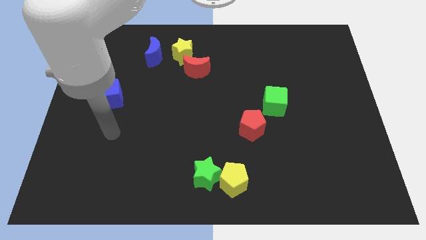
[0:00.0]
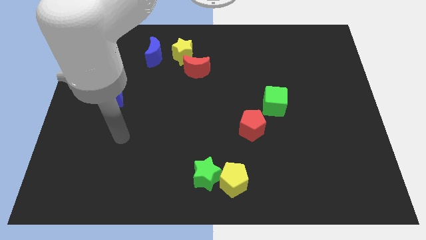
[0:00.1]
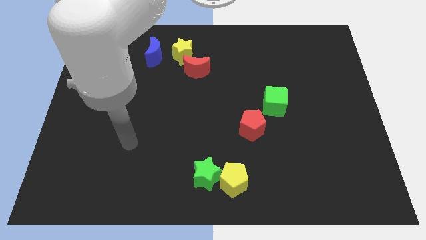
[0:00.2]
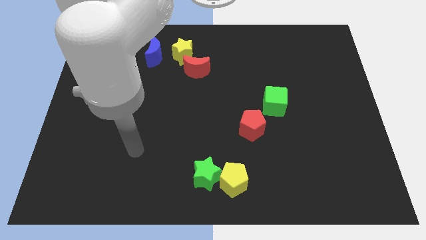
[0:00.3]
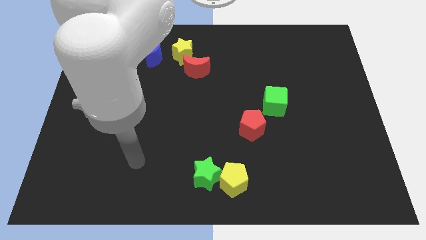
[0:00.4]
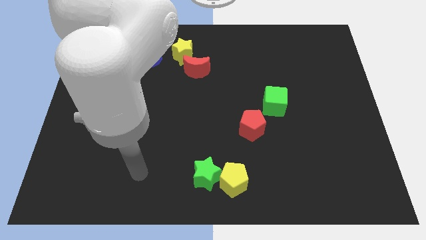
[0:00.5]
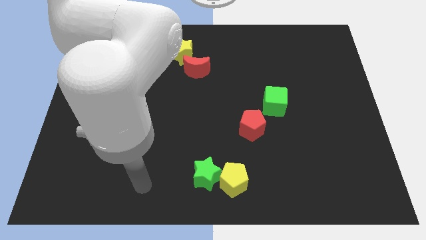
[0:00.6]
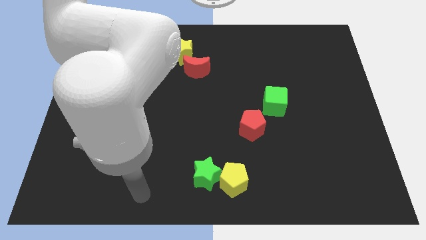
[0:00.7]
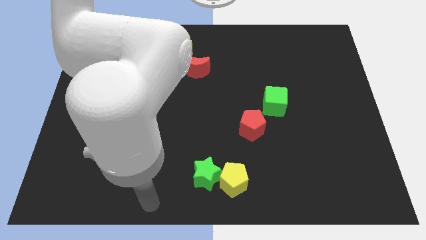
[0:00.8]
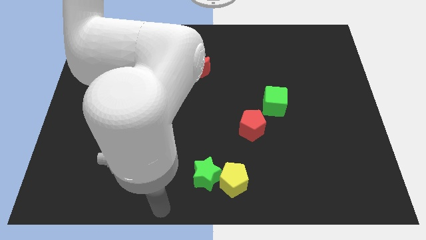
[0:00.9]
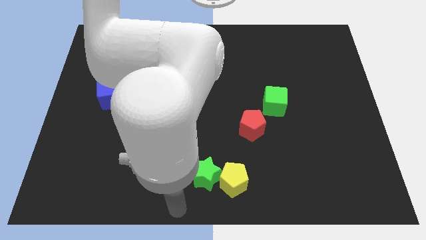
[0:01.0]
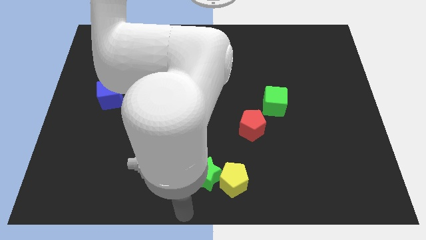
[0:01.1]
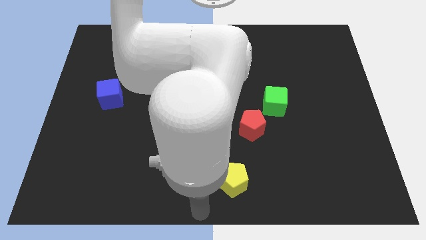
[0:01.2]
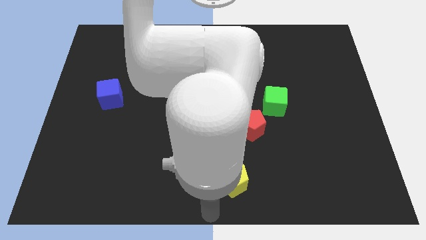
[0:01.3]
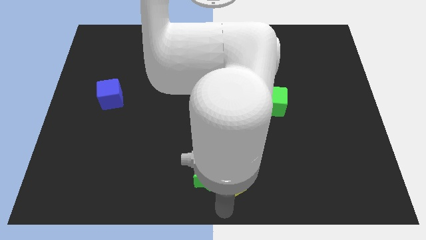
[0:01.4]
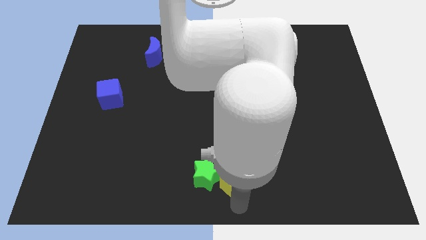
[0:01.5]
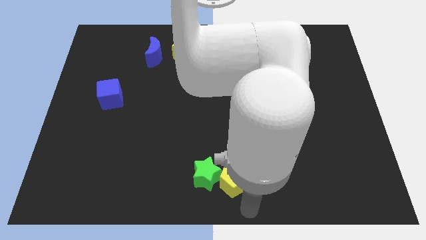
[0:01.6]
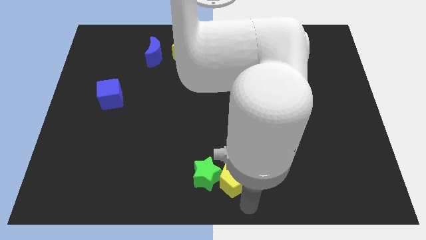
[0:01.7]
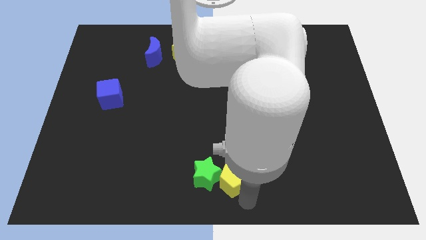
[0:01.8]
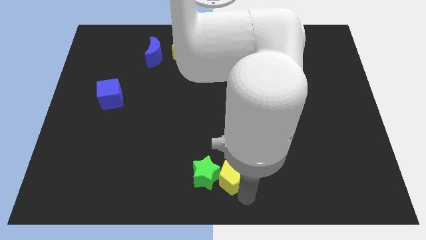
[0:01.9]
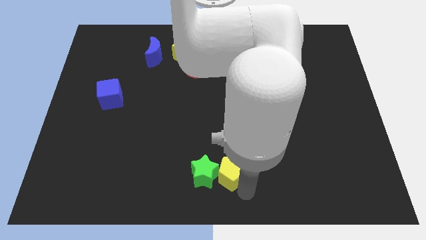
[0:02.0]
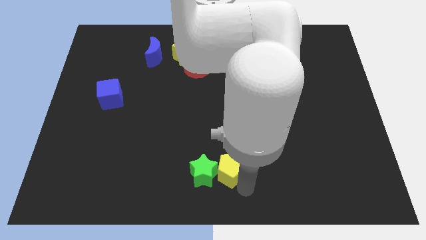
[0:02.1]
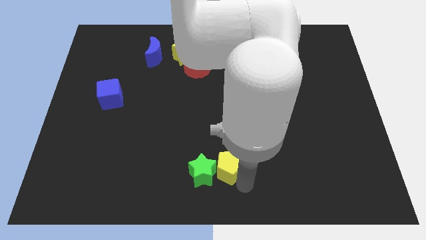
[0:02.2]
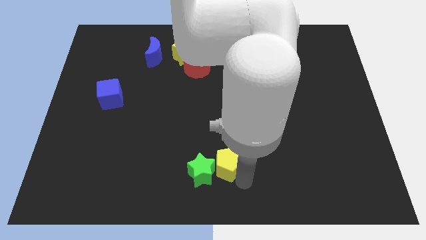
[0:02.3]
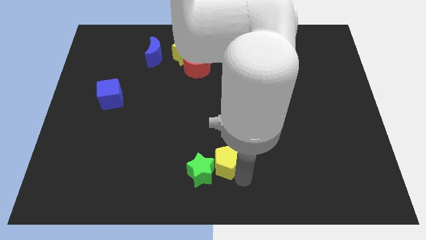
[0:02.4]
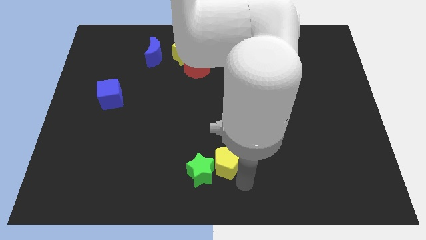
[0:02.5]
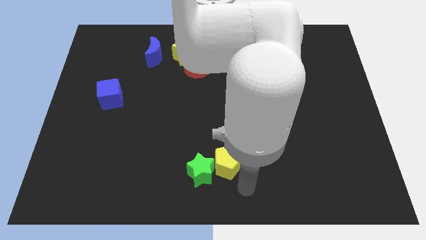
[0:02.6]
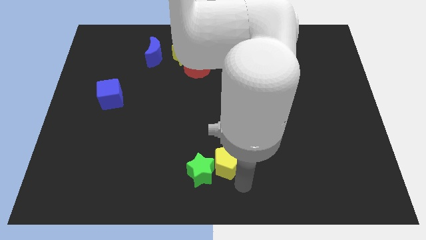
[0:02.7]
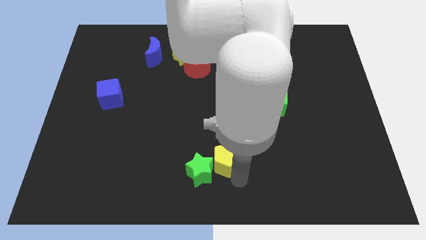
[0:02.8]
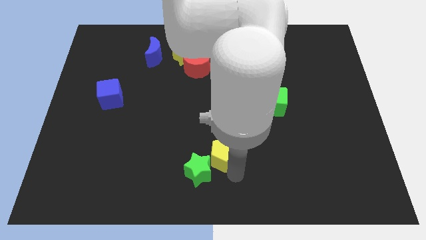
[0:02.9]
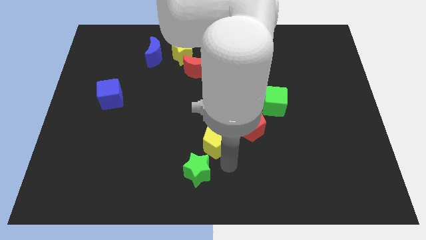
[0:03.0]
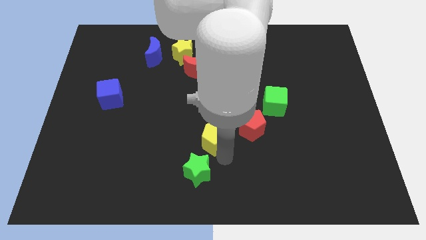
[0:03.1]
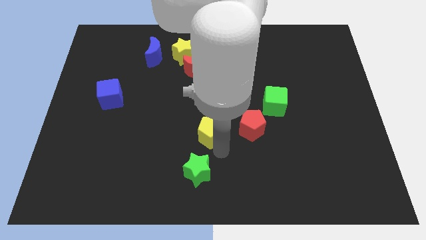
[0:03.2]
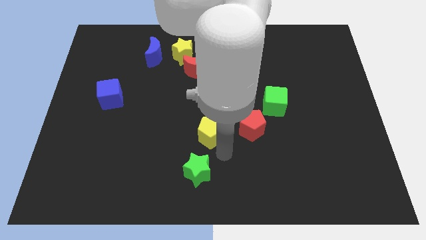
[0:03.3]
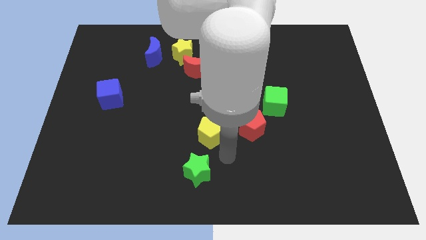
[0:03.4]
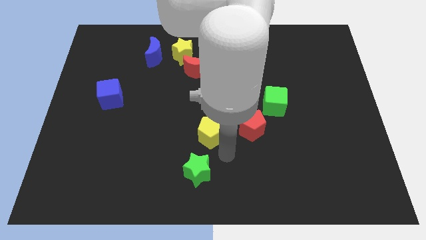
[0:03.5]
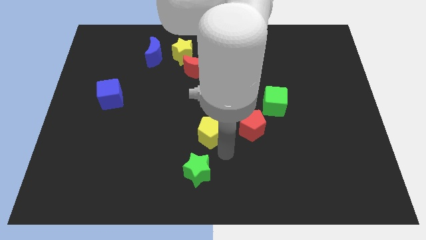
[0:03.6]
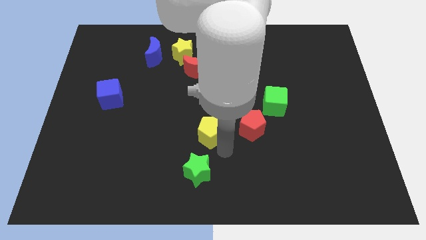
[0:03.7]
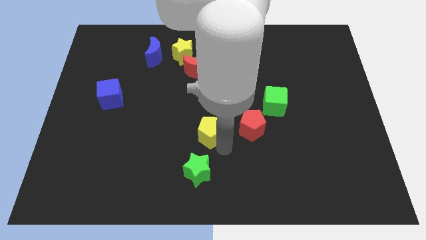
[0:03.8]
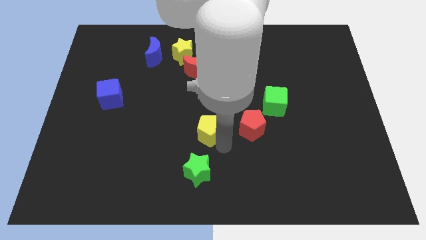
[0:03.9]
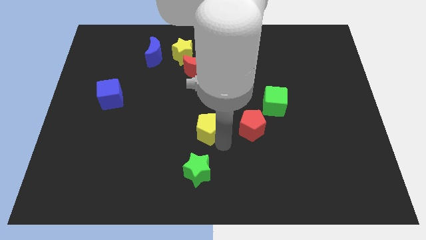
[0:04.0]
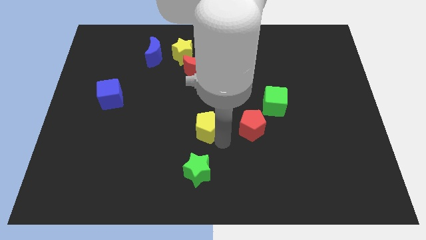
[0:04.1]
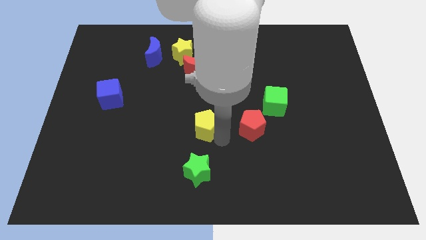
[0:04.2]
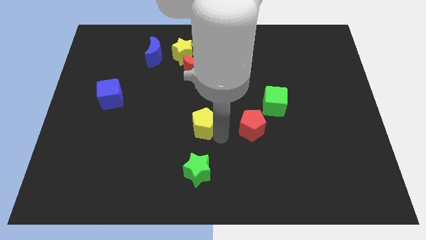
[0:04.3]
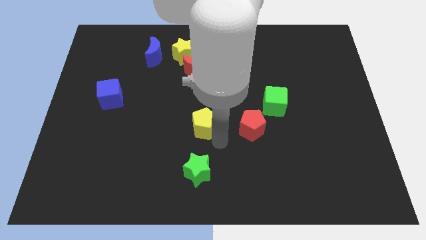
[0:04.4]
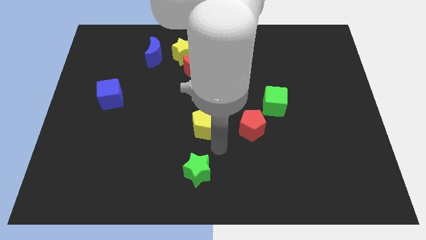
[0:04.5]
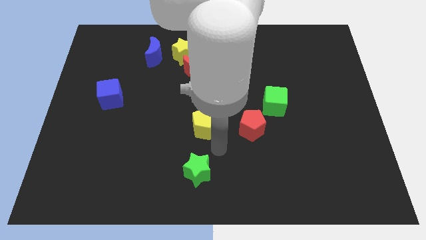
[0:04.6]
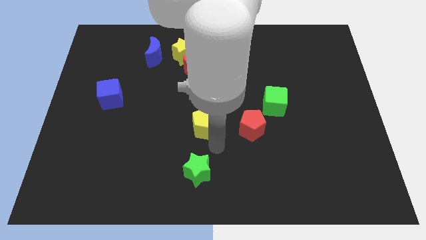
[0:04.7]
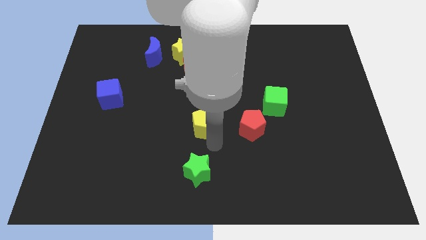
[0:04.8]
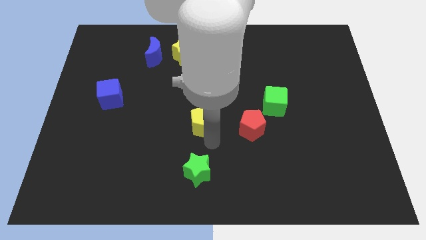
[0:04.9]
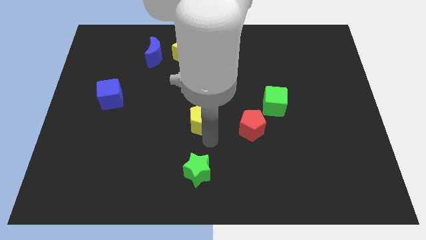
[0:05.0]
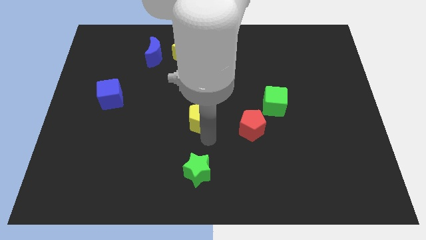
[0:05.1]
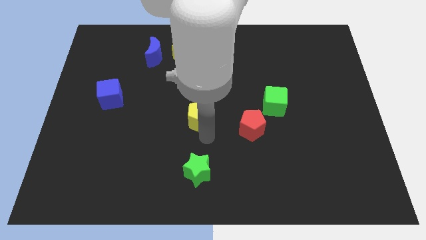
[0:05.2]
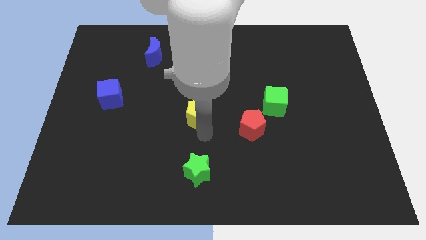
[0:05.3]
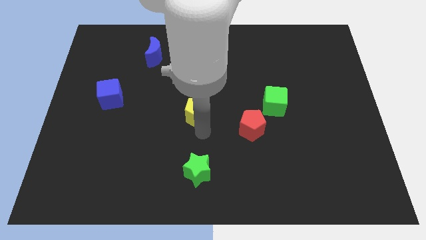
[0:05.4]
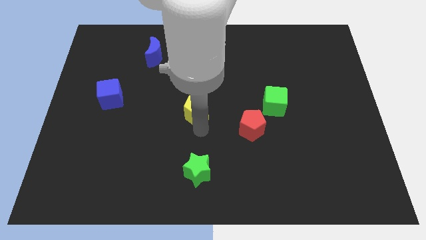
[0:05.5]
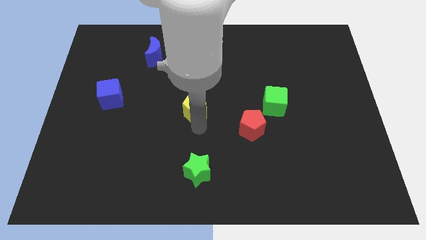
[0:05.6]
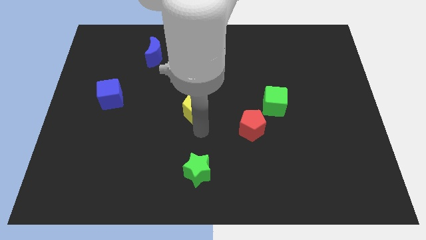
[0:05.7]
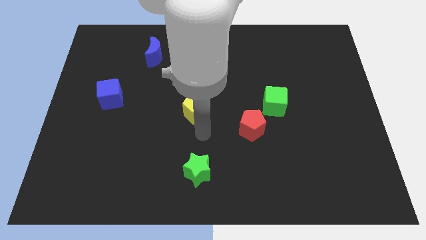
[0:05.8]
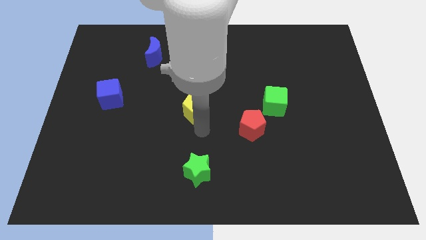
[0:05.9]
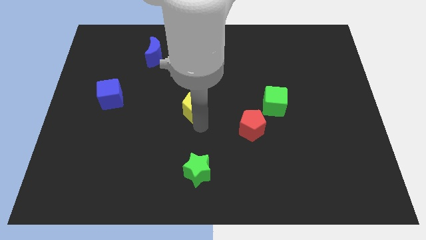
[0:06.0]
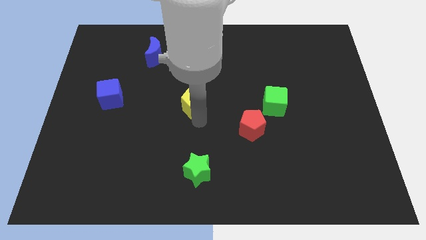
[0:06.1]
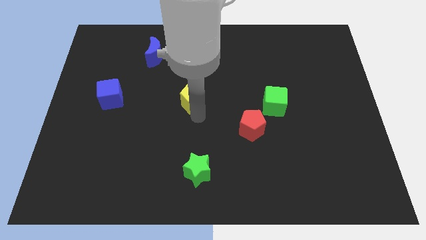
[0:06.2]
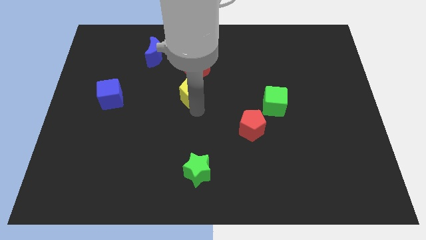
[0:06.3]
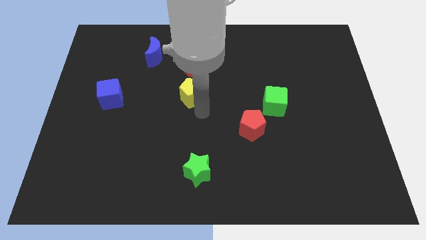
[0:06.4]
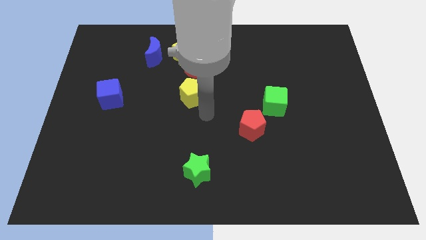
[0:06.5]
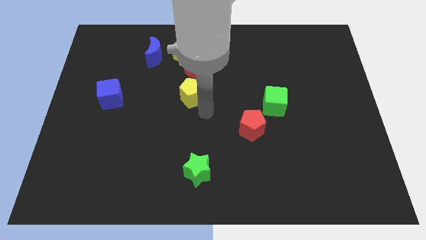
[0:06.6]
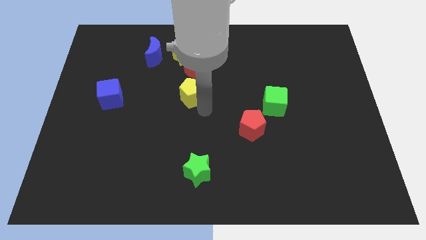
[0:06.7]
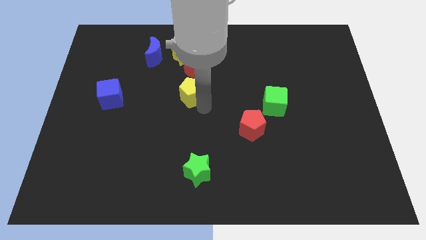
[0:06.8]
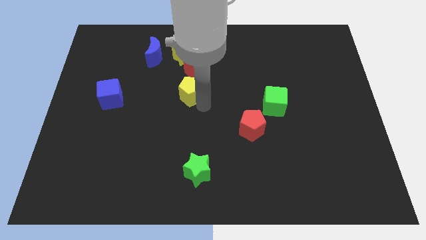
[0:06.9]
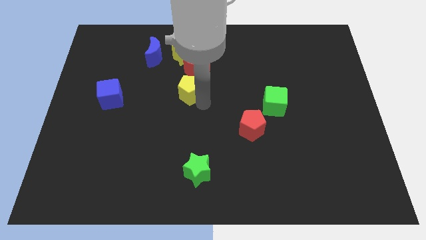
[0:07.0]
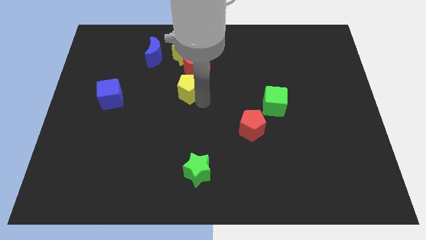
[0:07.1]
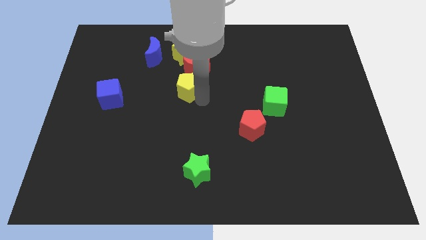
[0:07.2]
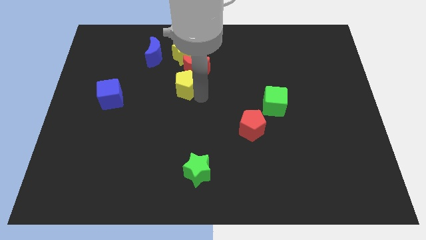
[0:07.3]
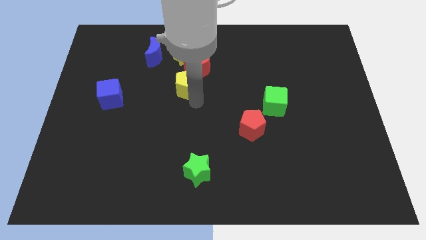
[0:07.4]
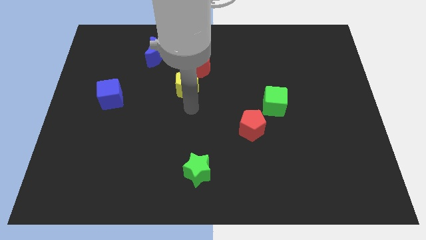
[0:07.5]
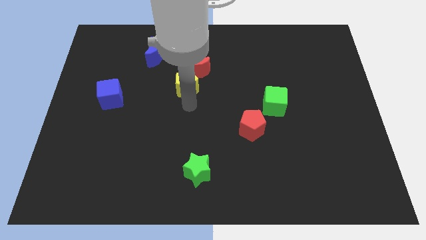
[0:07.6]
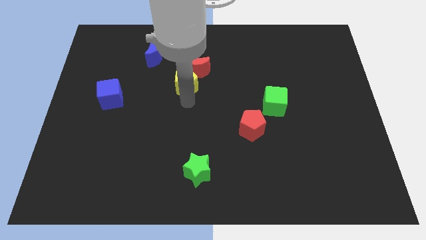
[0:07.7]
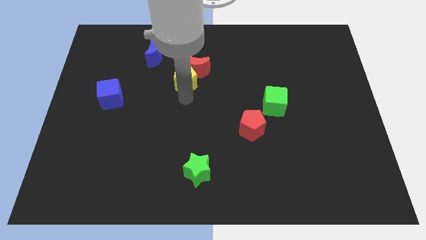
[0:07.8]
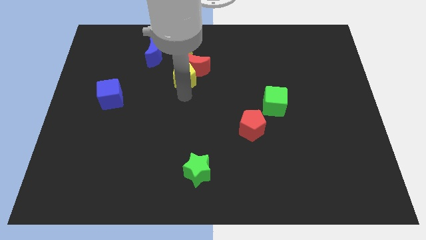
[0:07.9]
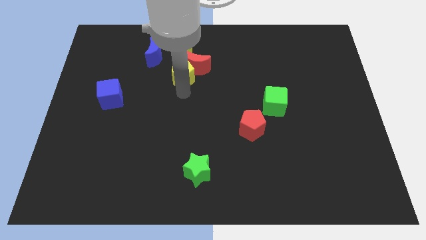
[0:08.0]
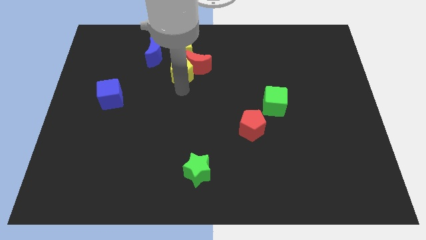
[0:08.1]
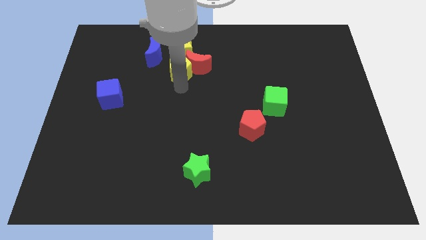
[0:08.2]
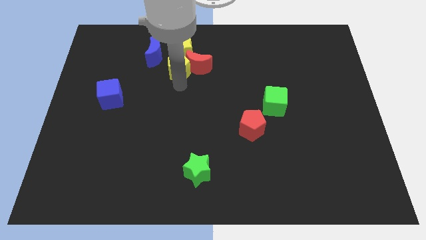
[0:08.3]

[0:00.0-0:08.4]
put the yellow pentagon next to the yellow star
